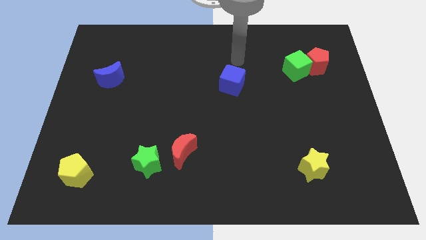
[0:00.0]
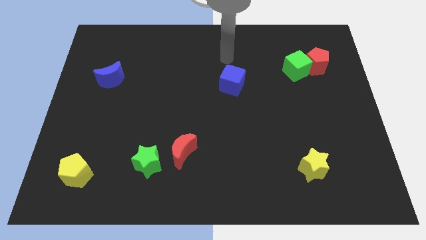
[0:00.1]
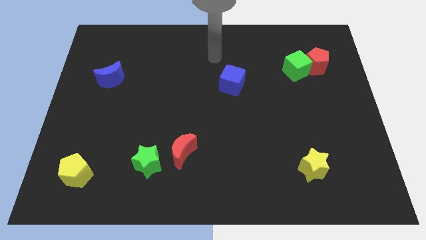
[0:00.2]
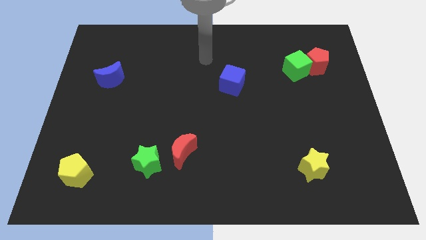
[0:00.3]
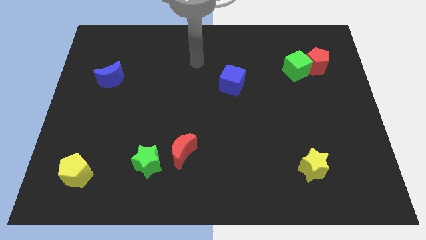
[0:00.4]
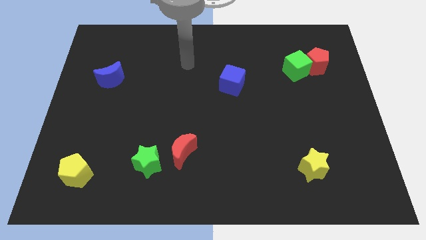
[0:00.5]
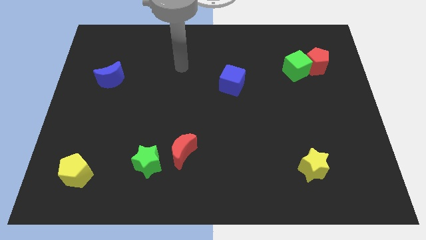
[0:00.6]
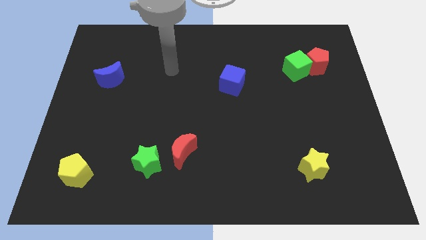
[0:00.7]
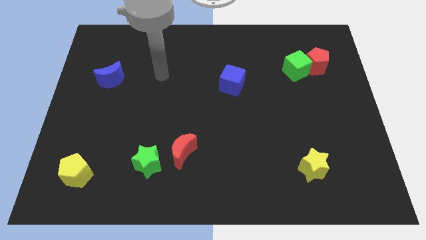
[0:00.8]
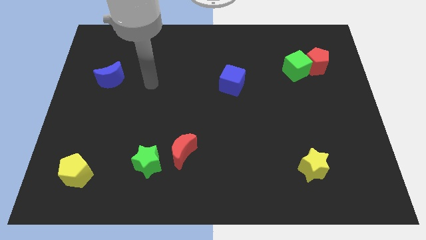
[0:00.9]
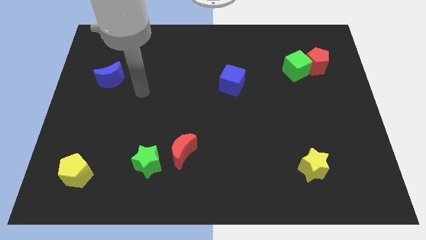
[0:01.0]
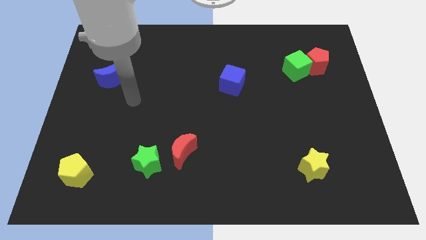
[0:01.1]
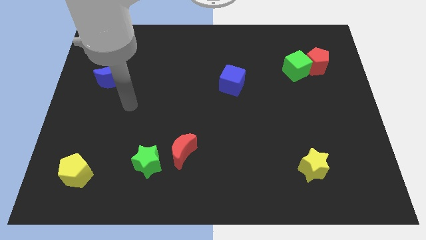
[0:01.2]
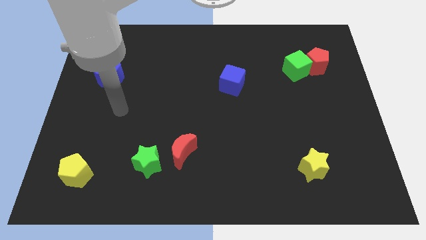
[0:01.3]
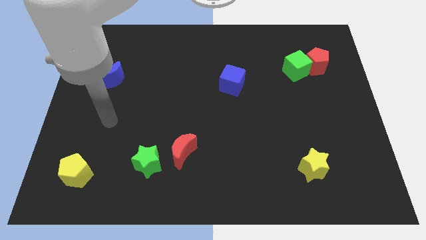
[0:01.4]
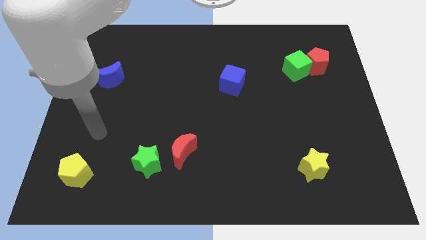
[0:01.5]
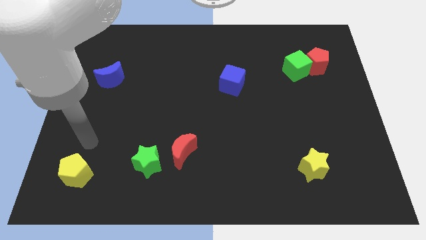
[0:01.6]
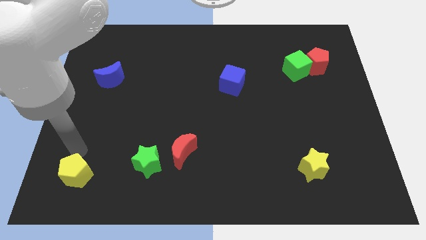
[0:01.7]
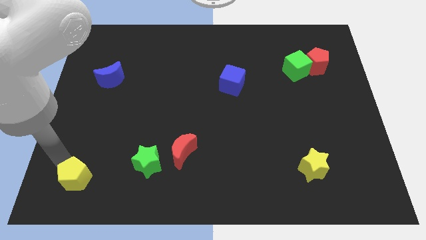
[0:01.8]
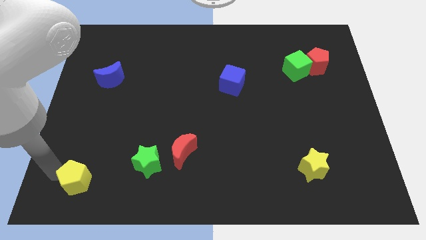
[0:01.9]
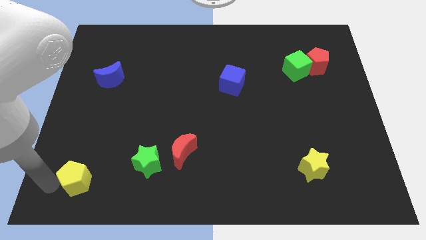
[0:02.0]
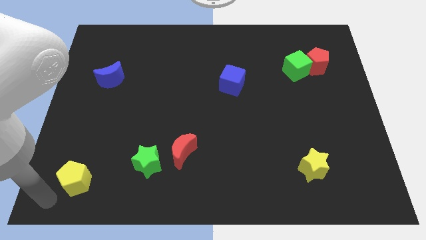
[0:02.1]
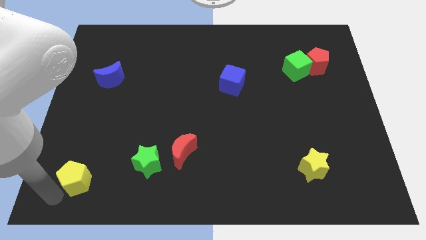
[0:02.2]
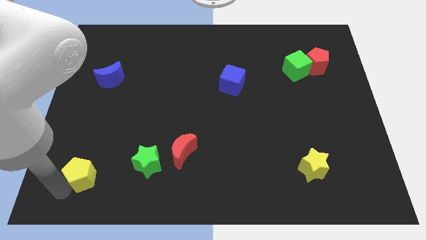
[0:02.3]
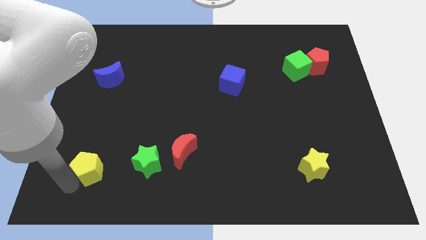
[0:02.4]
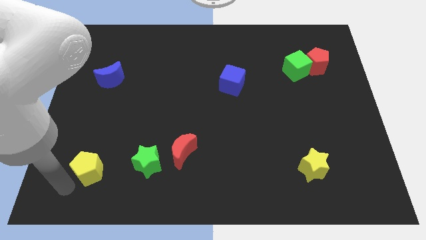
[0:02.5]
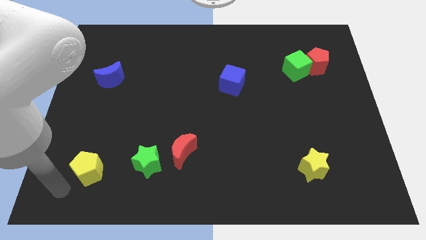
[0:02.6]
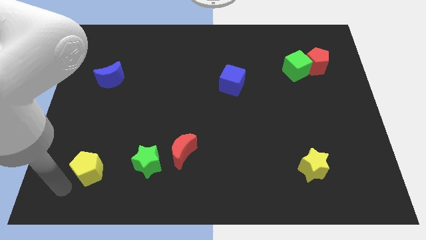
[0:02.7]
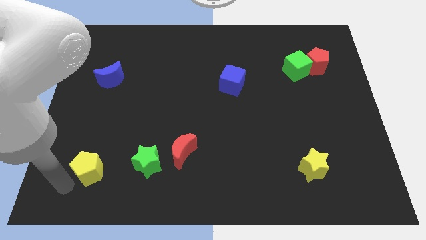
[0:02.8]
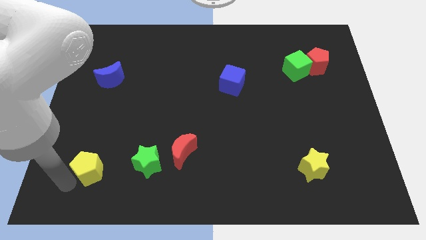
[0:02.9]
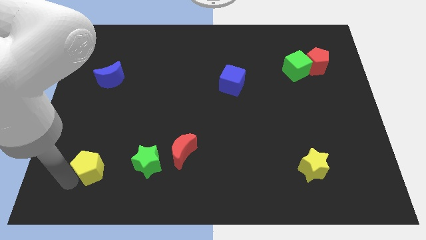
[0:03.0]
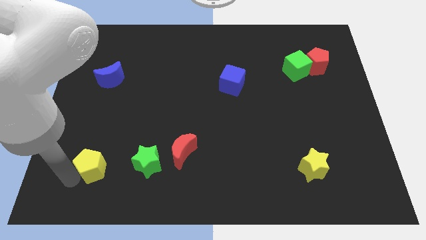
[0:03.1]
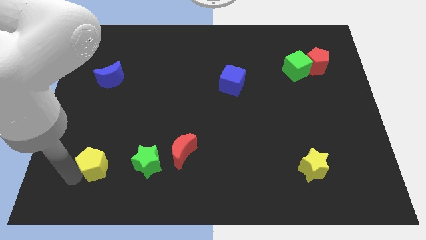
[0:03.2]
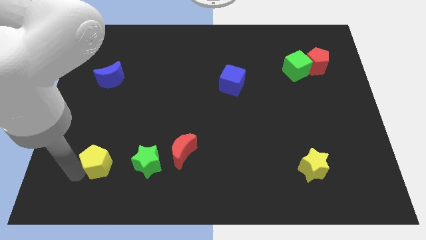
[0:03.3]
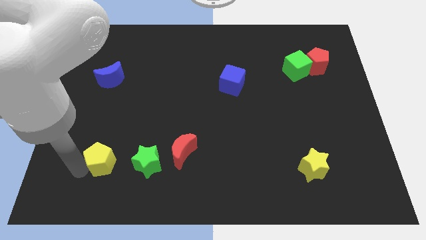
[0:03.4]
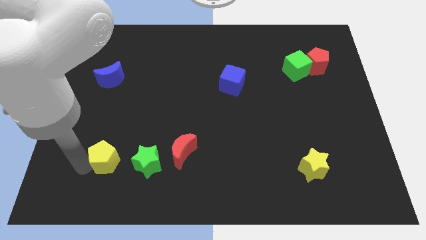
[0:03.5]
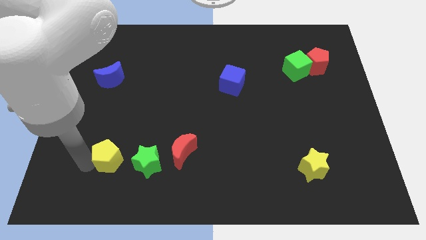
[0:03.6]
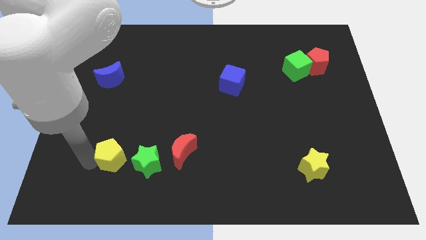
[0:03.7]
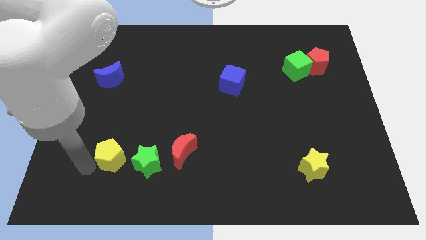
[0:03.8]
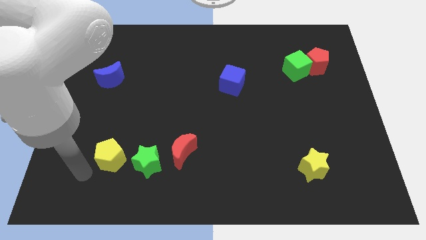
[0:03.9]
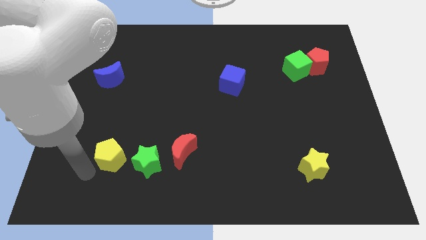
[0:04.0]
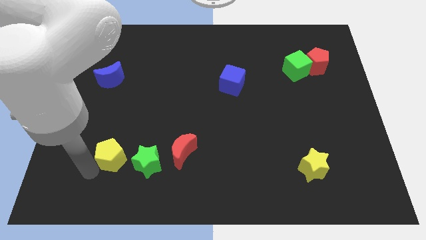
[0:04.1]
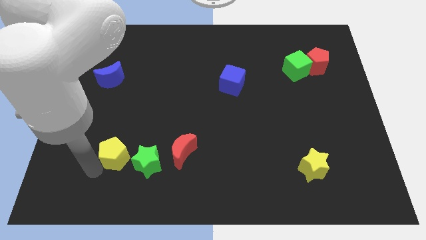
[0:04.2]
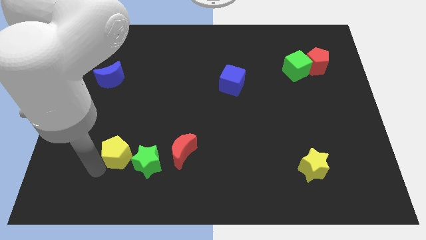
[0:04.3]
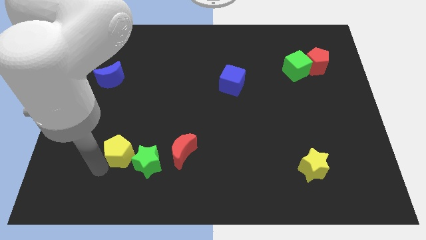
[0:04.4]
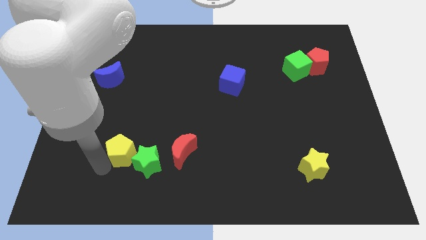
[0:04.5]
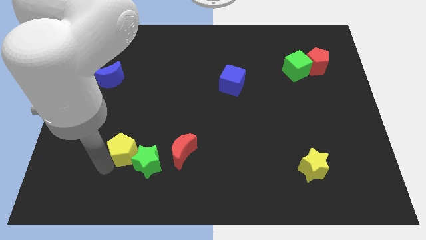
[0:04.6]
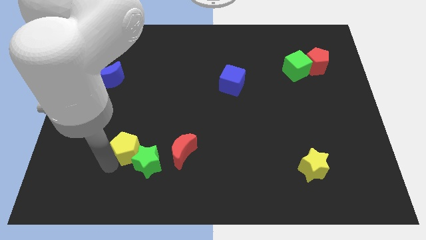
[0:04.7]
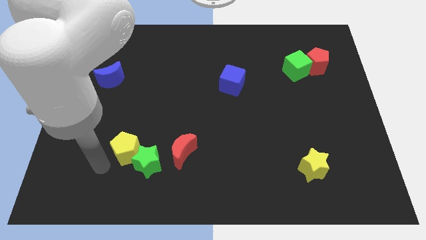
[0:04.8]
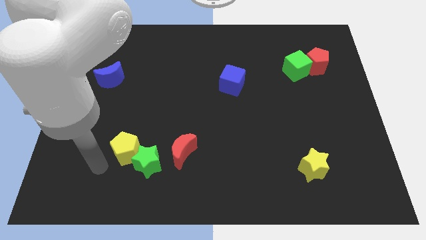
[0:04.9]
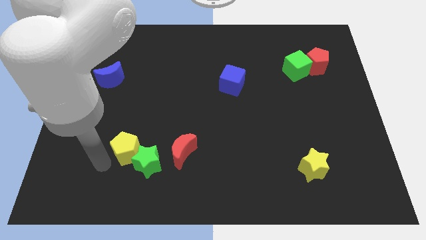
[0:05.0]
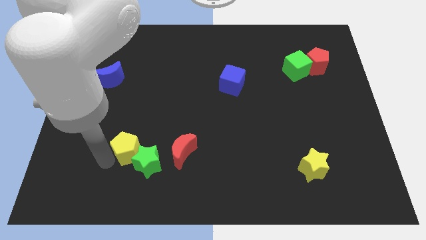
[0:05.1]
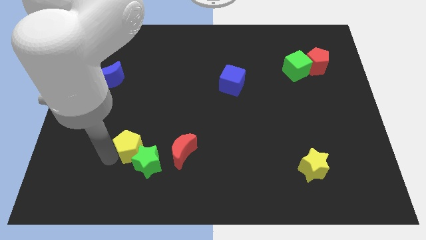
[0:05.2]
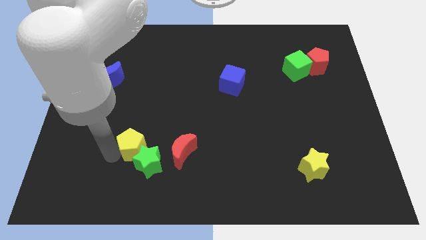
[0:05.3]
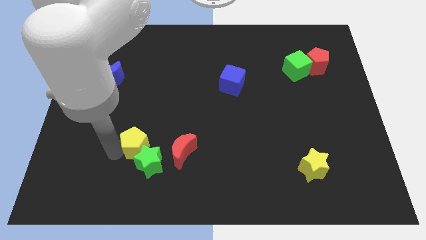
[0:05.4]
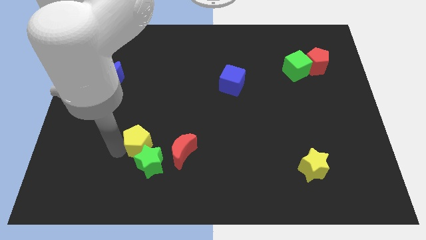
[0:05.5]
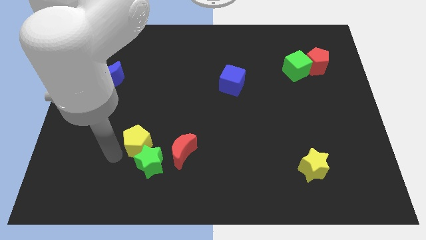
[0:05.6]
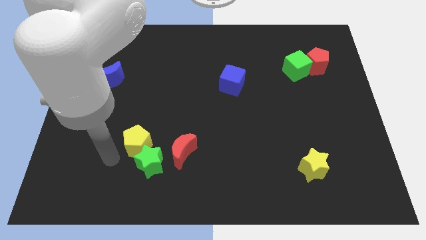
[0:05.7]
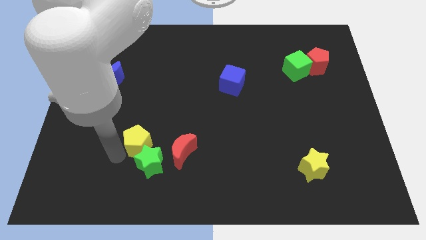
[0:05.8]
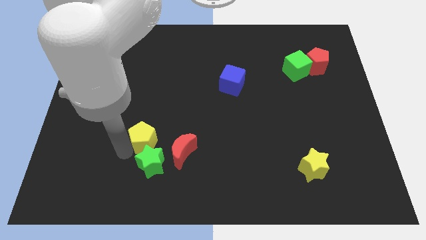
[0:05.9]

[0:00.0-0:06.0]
put the yellow pentagon diagonally up and to the left of the red moon

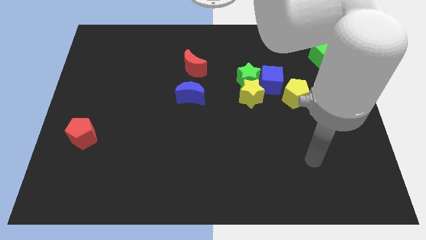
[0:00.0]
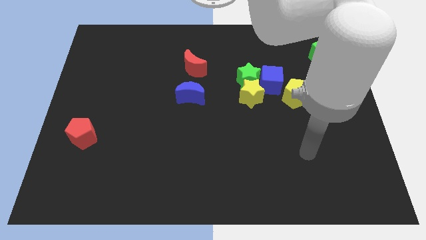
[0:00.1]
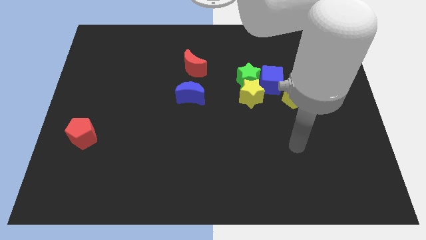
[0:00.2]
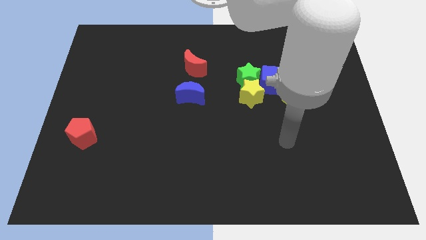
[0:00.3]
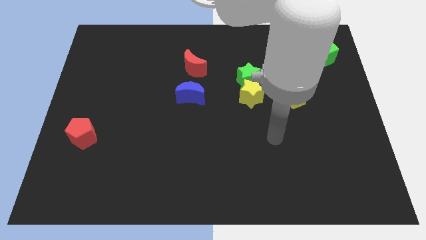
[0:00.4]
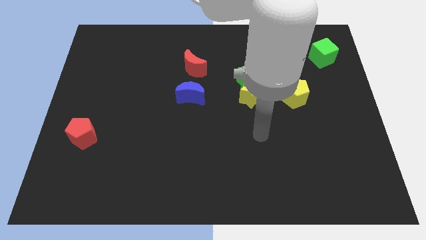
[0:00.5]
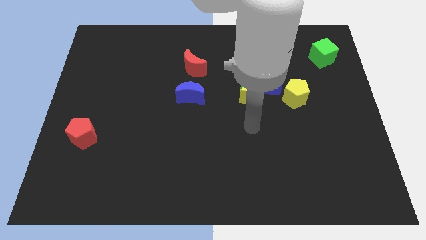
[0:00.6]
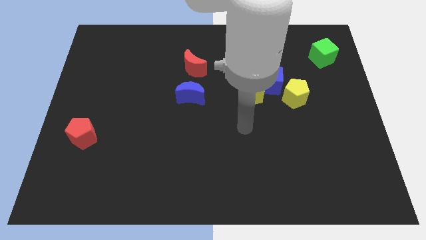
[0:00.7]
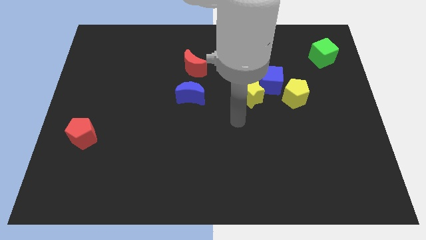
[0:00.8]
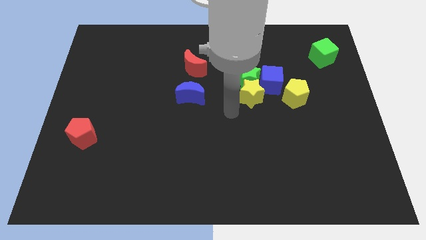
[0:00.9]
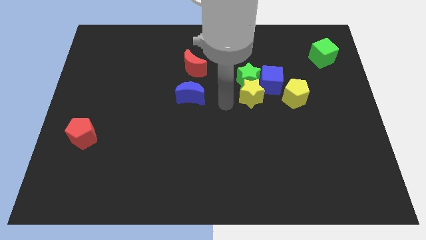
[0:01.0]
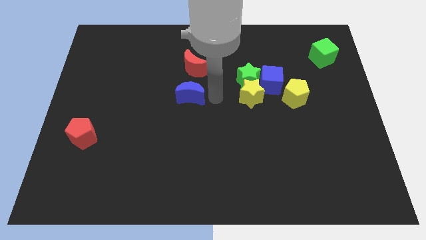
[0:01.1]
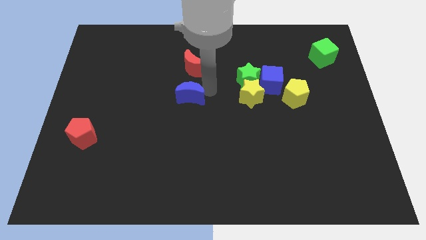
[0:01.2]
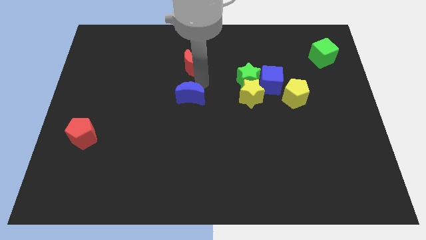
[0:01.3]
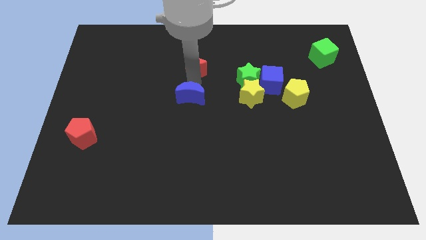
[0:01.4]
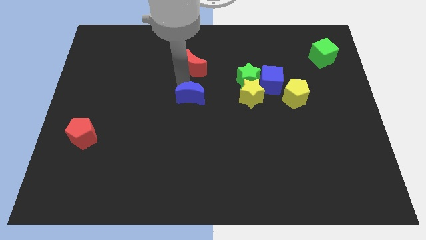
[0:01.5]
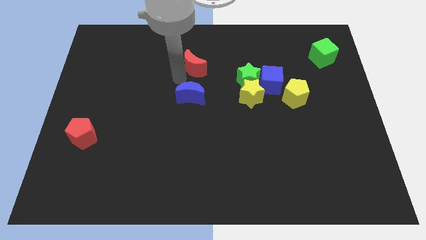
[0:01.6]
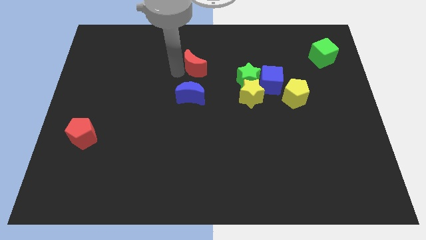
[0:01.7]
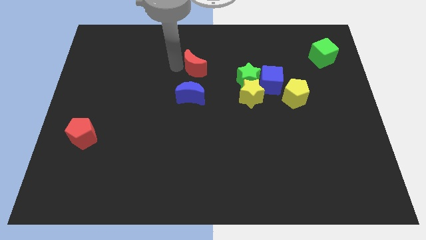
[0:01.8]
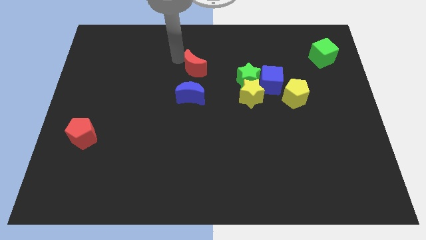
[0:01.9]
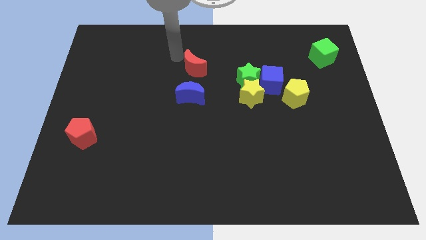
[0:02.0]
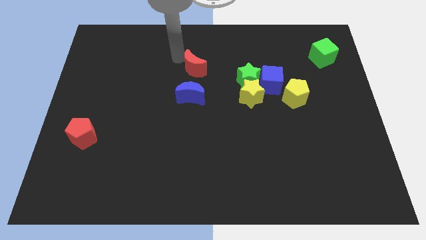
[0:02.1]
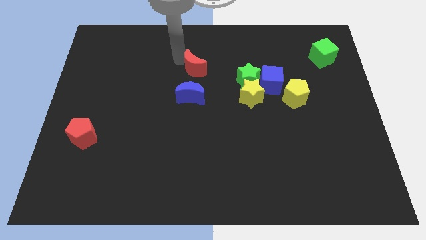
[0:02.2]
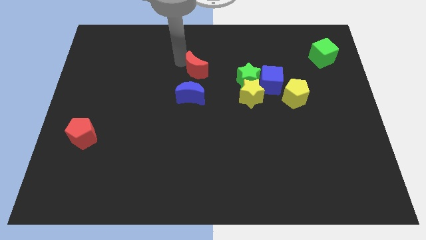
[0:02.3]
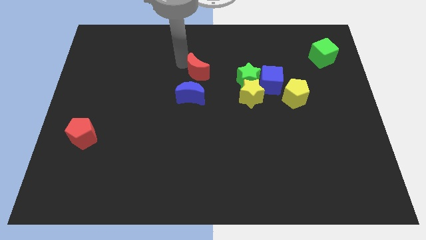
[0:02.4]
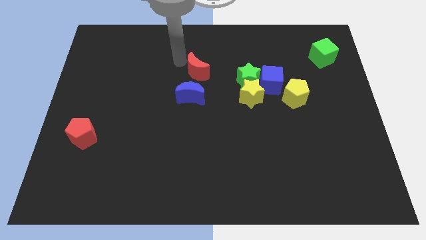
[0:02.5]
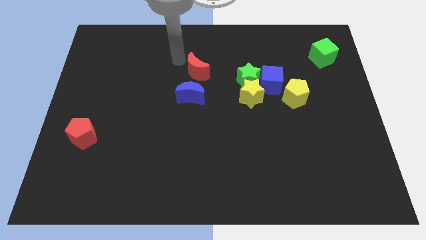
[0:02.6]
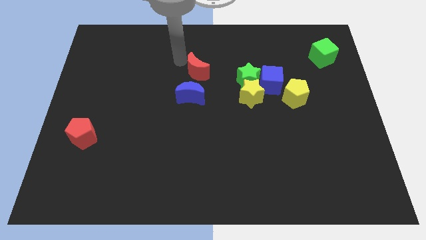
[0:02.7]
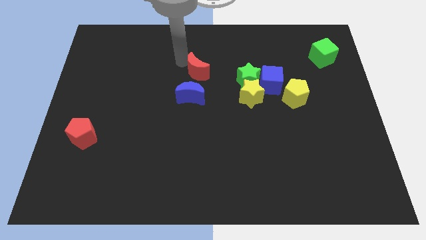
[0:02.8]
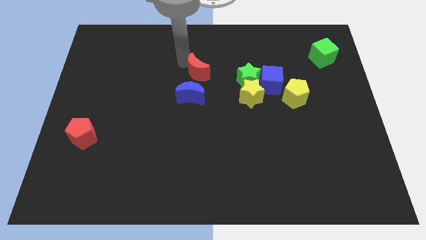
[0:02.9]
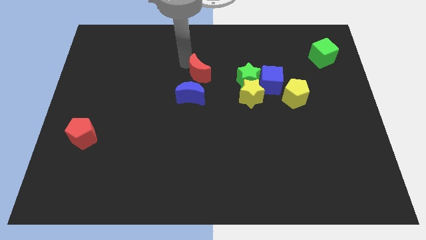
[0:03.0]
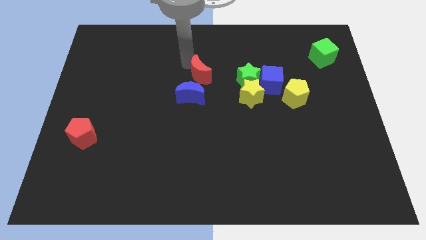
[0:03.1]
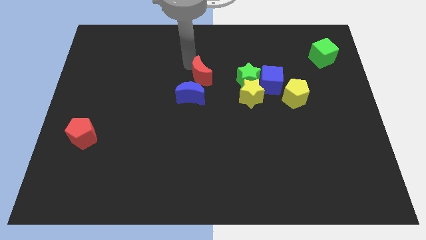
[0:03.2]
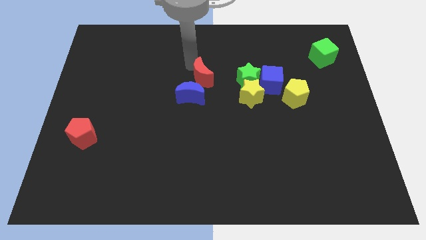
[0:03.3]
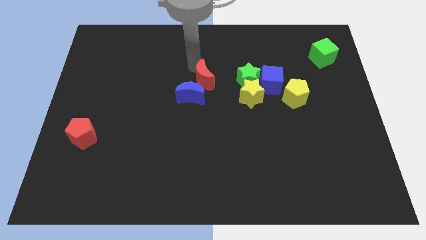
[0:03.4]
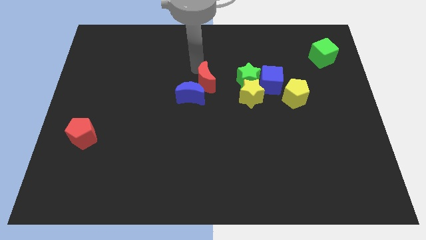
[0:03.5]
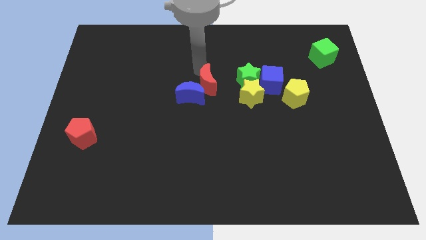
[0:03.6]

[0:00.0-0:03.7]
slide the red moon right of the blue moon
